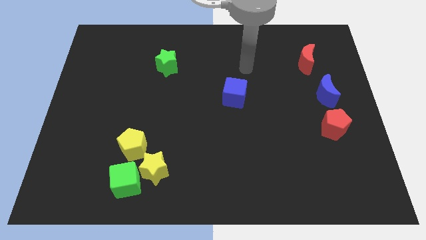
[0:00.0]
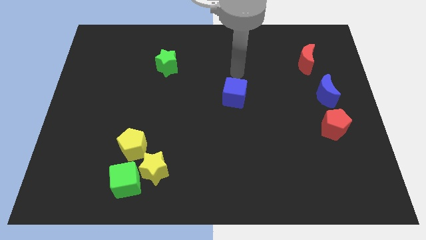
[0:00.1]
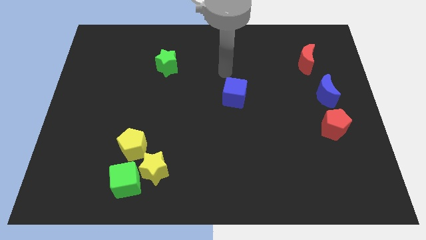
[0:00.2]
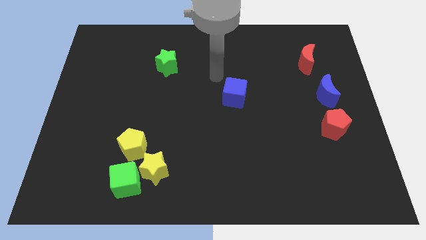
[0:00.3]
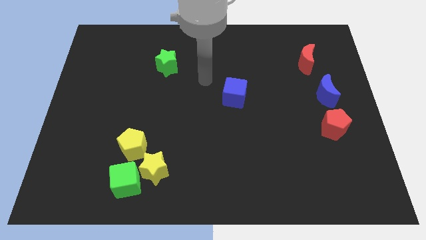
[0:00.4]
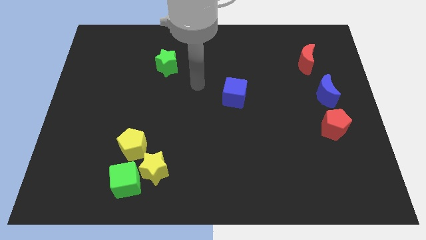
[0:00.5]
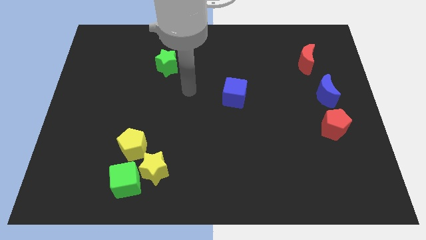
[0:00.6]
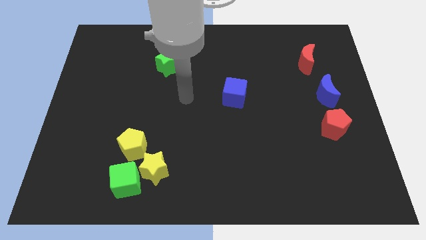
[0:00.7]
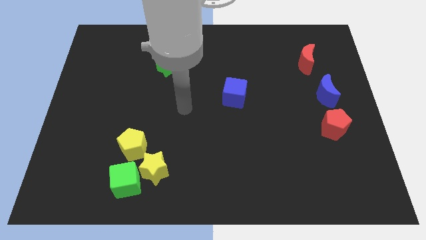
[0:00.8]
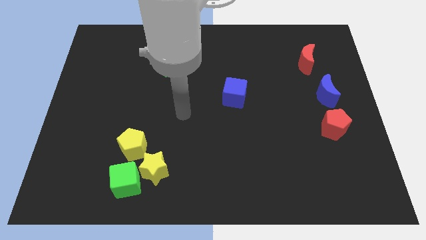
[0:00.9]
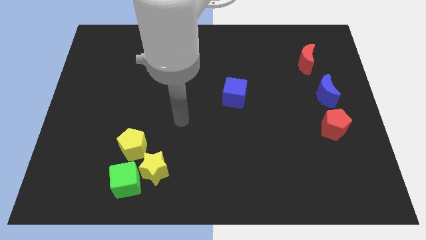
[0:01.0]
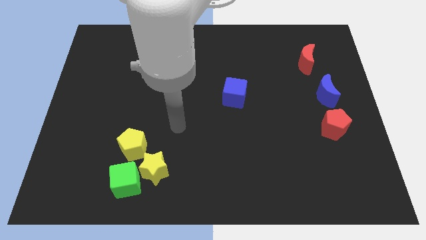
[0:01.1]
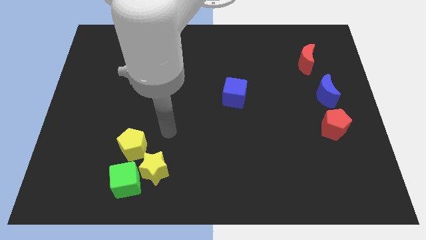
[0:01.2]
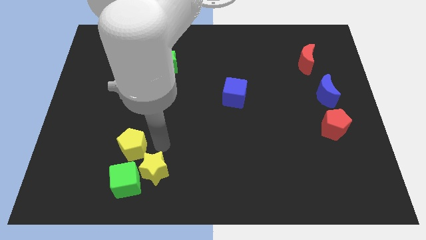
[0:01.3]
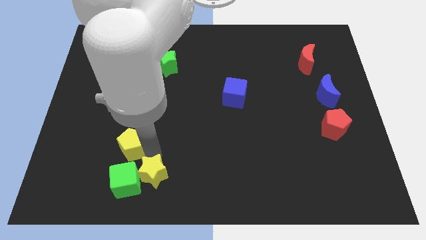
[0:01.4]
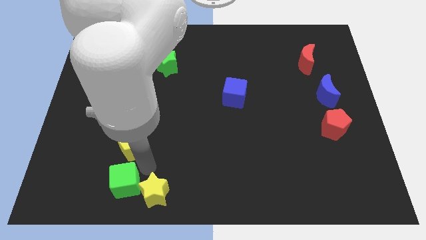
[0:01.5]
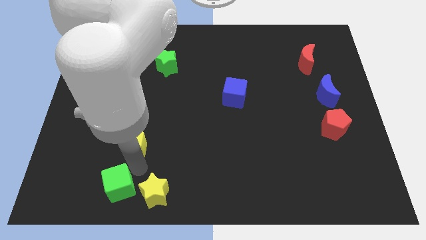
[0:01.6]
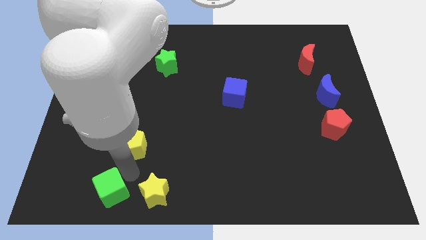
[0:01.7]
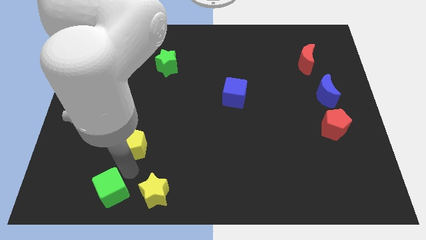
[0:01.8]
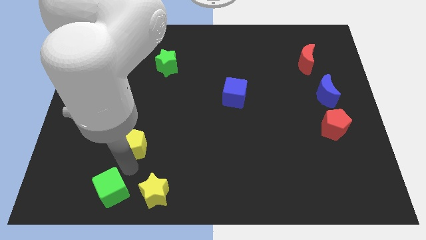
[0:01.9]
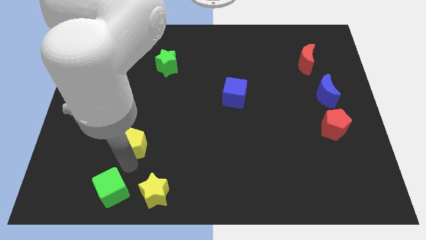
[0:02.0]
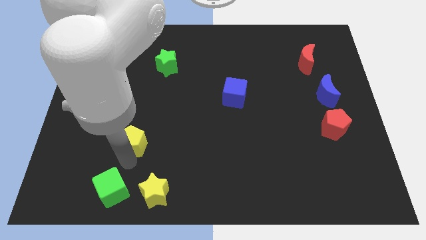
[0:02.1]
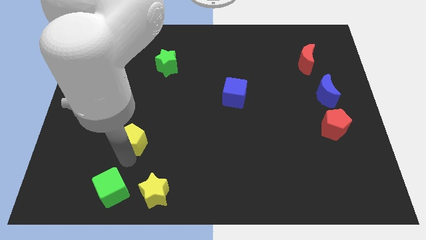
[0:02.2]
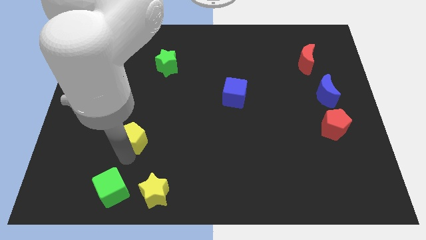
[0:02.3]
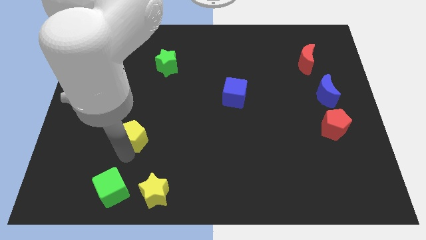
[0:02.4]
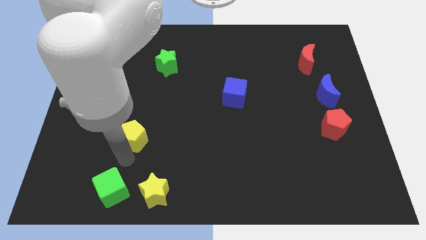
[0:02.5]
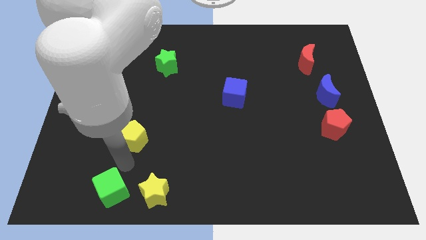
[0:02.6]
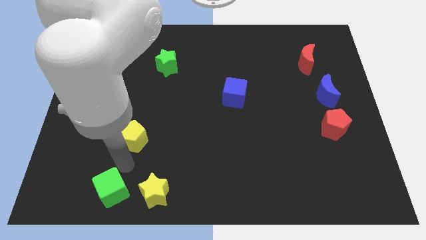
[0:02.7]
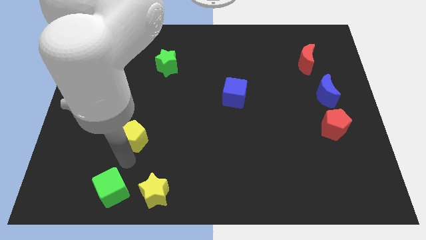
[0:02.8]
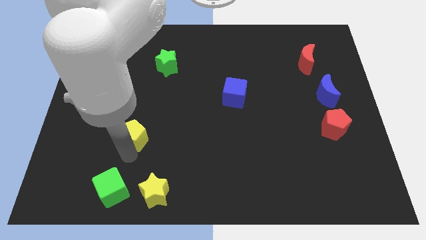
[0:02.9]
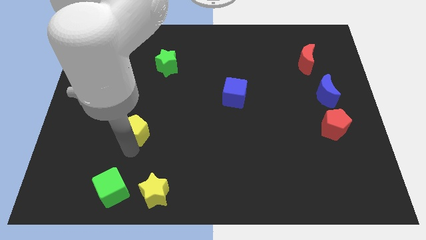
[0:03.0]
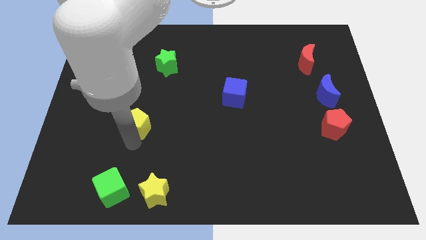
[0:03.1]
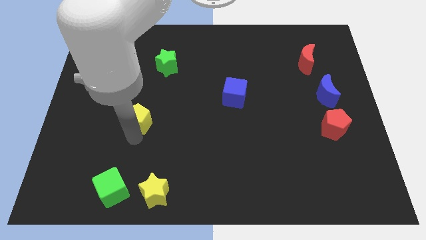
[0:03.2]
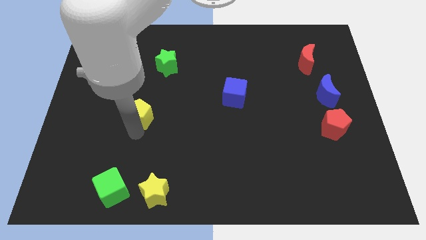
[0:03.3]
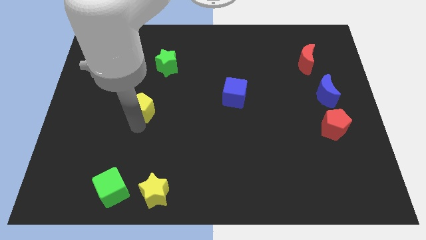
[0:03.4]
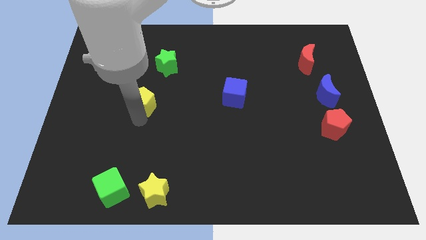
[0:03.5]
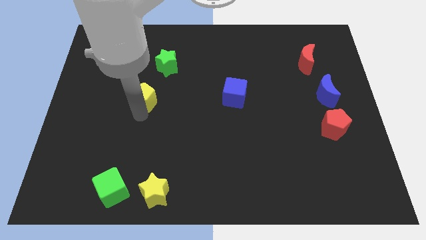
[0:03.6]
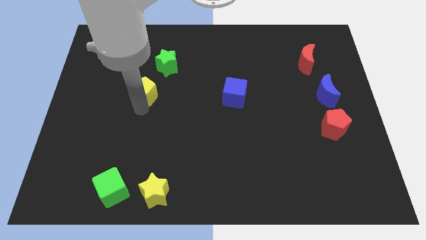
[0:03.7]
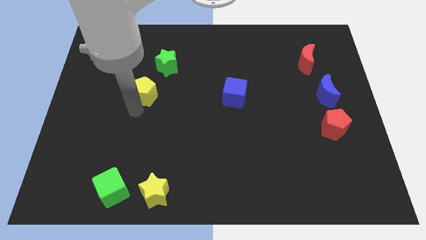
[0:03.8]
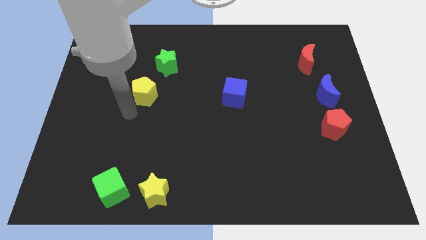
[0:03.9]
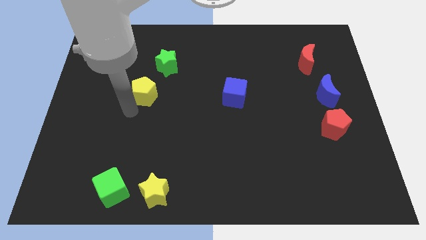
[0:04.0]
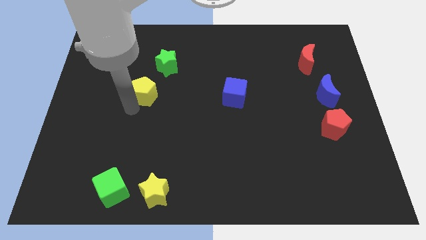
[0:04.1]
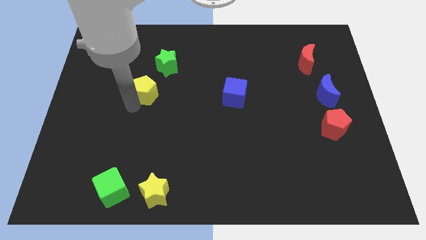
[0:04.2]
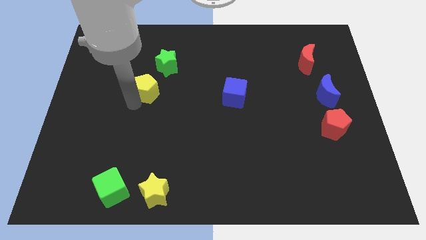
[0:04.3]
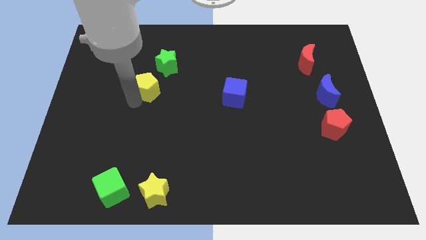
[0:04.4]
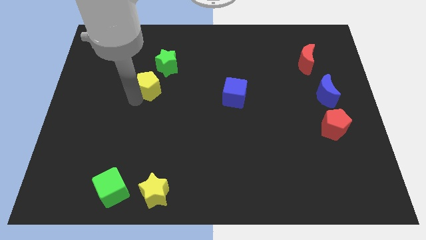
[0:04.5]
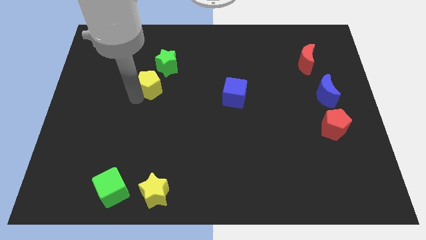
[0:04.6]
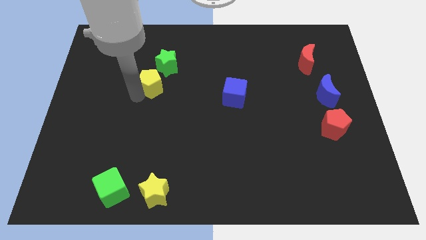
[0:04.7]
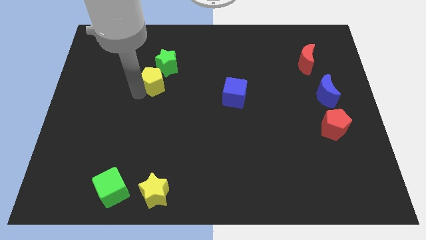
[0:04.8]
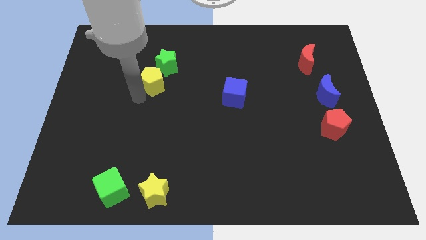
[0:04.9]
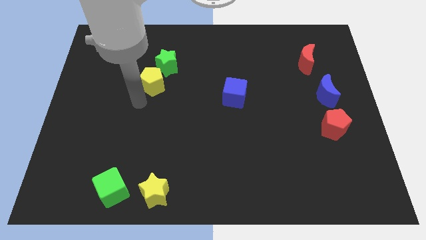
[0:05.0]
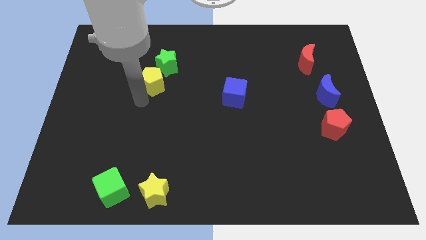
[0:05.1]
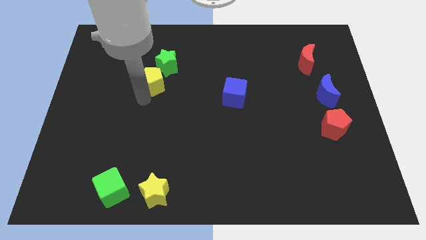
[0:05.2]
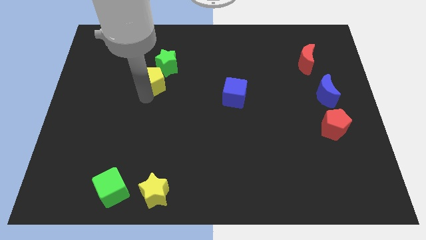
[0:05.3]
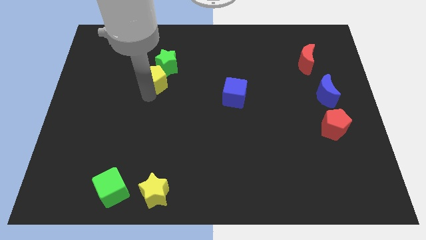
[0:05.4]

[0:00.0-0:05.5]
put the yellow pentagon towards the green star

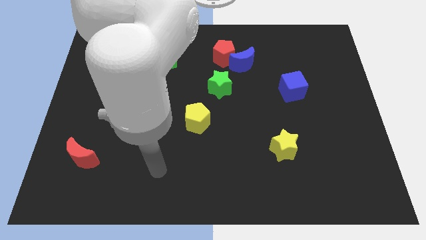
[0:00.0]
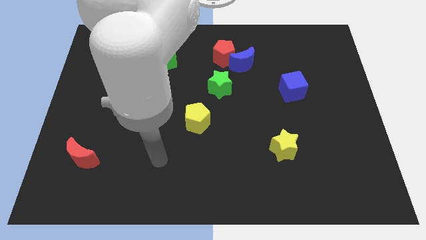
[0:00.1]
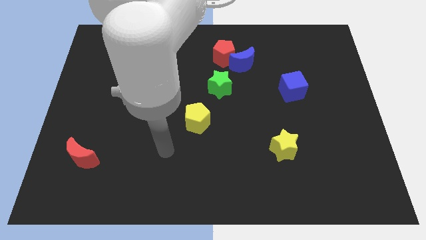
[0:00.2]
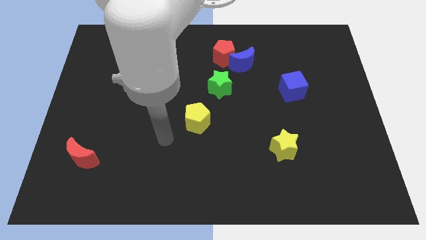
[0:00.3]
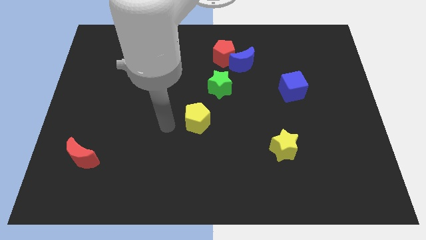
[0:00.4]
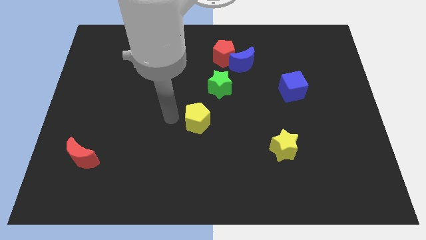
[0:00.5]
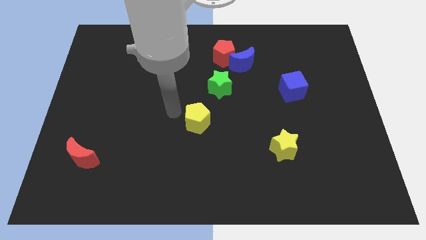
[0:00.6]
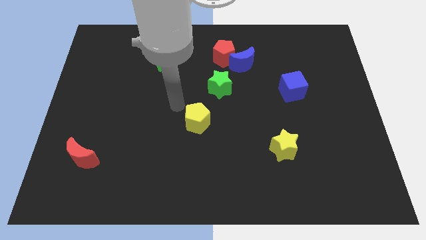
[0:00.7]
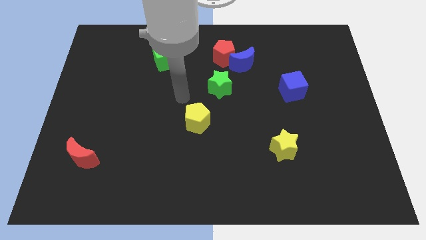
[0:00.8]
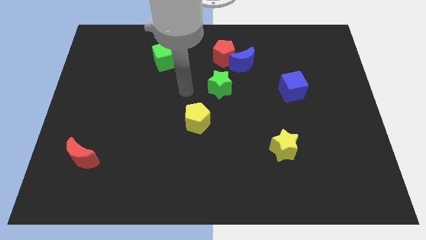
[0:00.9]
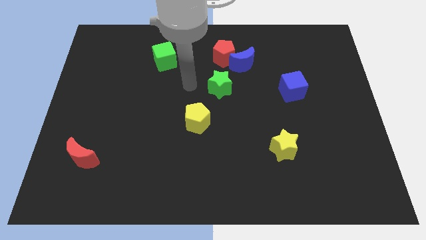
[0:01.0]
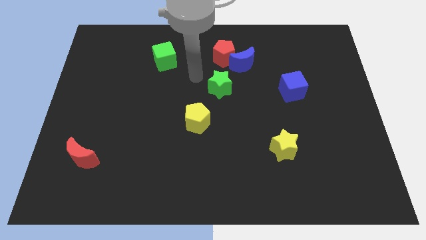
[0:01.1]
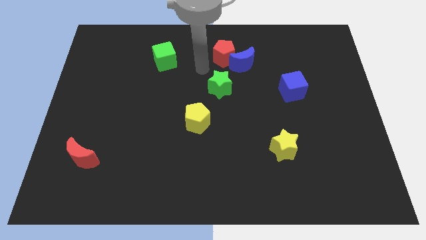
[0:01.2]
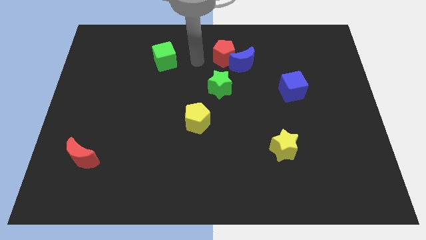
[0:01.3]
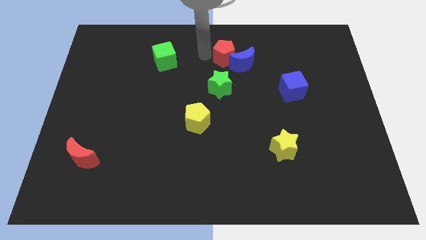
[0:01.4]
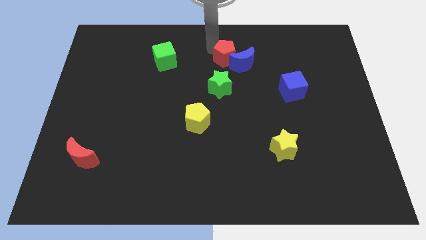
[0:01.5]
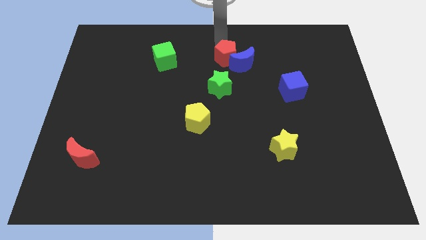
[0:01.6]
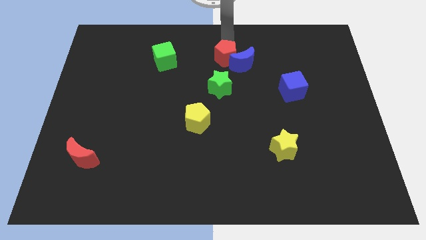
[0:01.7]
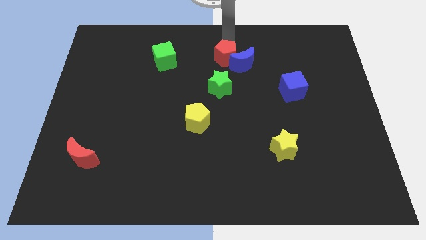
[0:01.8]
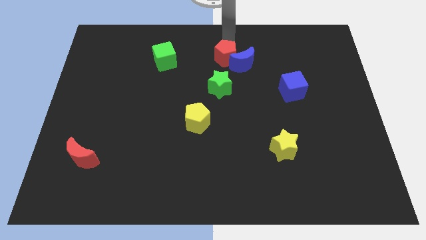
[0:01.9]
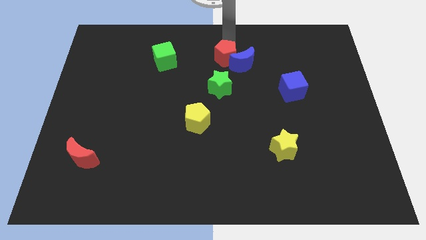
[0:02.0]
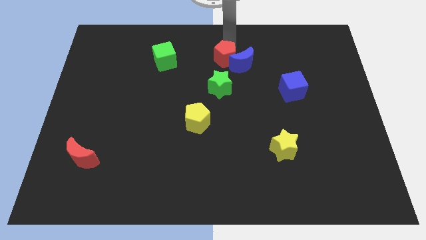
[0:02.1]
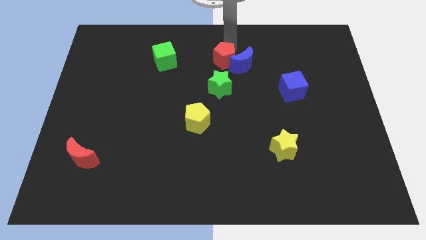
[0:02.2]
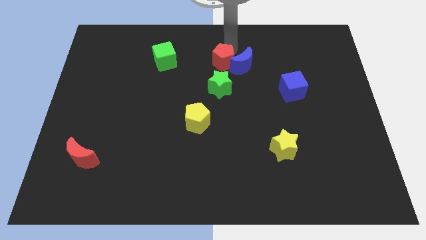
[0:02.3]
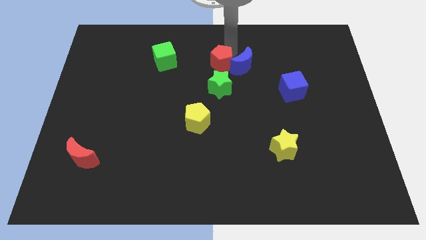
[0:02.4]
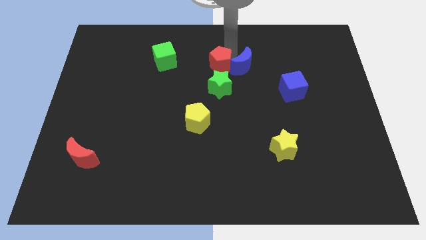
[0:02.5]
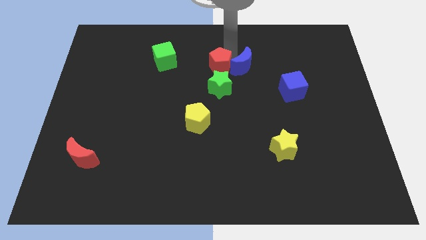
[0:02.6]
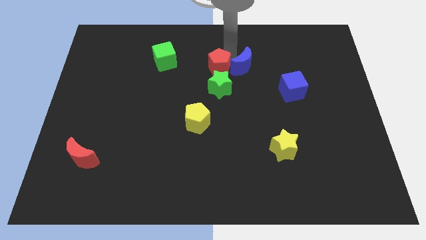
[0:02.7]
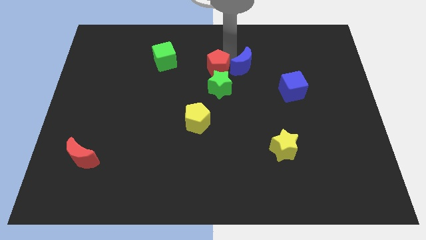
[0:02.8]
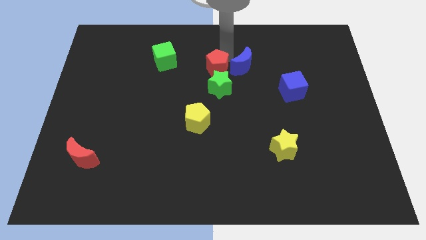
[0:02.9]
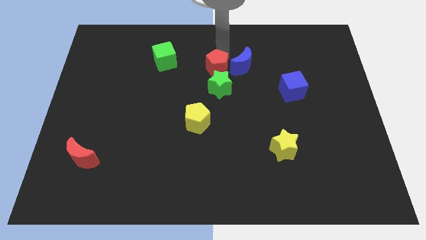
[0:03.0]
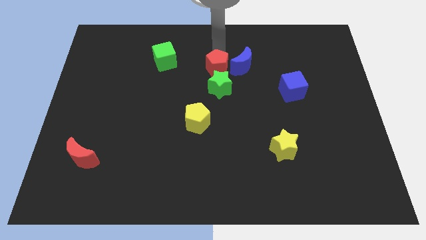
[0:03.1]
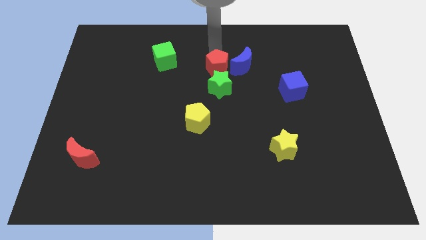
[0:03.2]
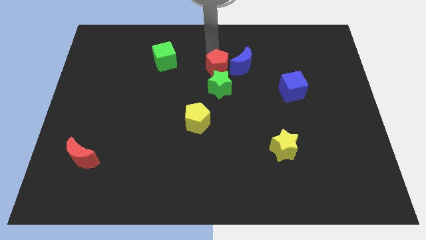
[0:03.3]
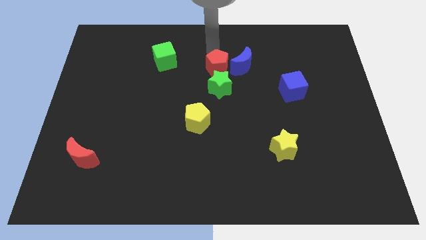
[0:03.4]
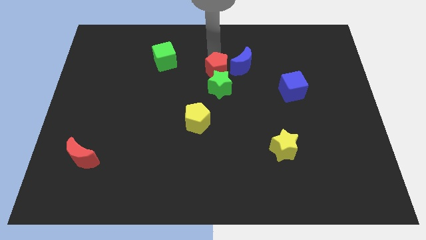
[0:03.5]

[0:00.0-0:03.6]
slide the red pentagon close to the green star
